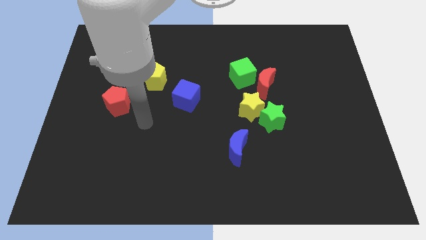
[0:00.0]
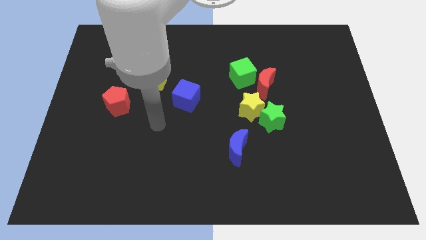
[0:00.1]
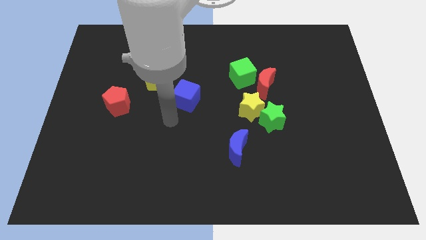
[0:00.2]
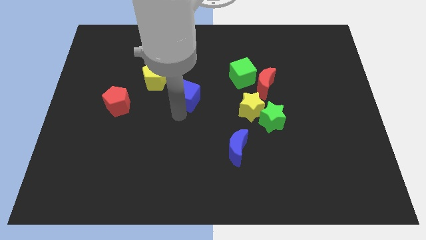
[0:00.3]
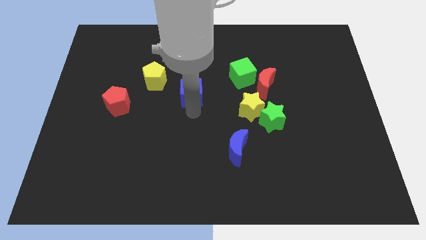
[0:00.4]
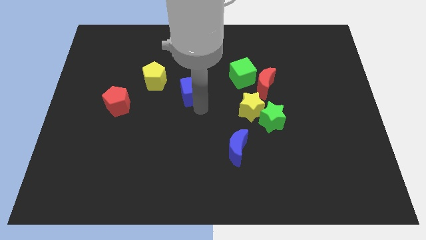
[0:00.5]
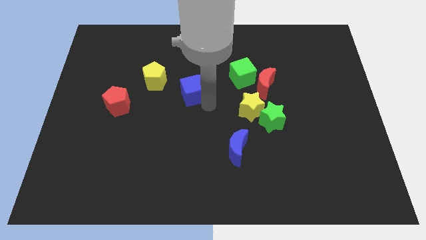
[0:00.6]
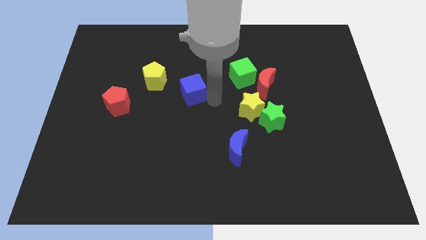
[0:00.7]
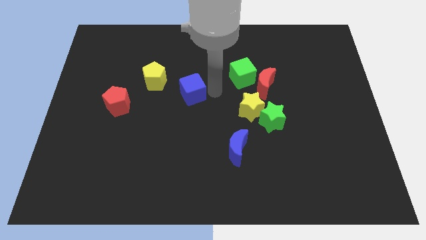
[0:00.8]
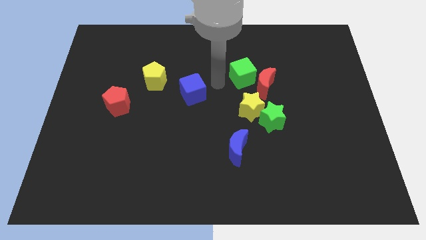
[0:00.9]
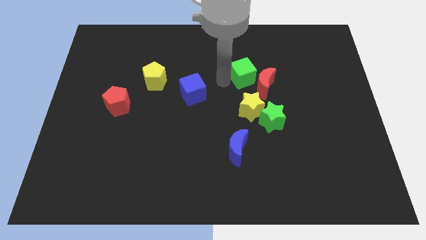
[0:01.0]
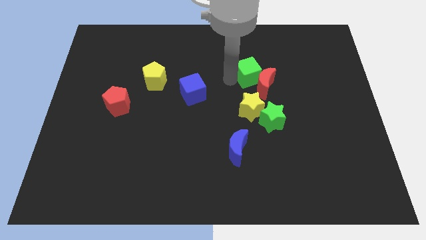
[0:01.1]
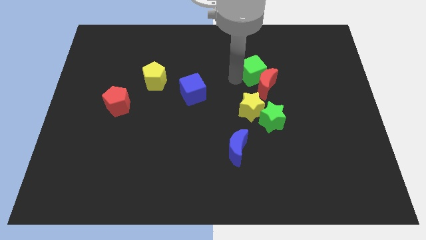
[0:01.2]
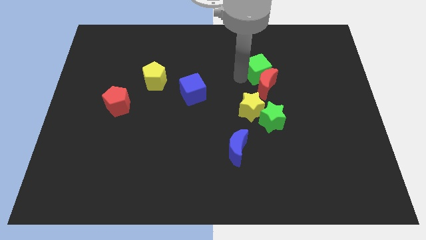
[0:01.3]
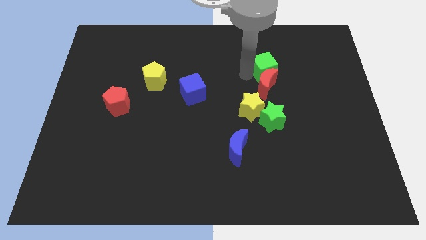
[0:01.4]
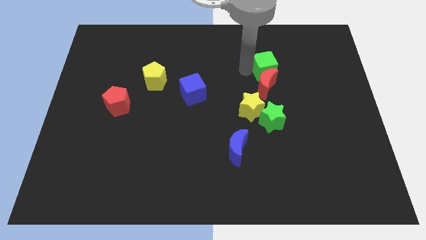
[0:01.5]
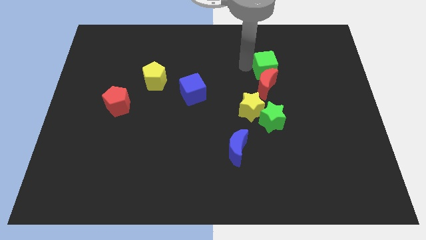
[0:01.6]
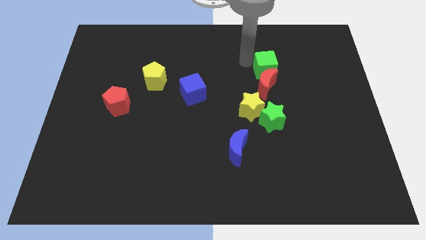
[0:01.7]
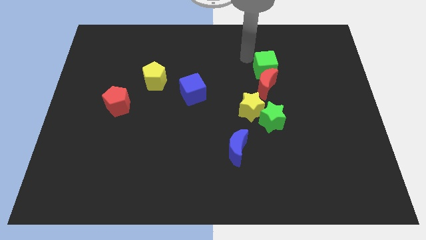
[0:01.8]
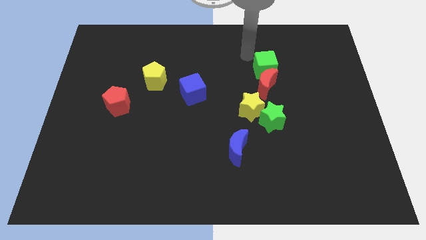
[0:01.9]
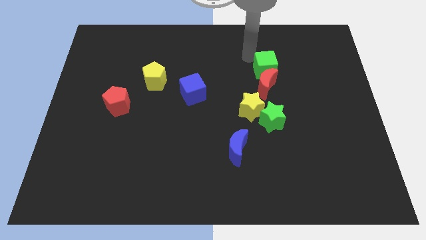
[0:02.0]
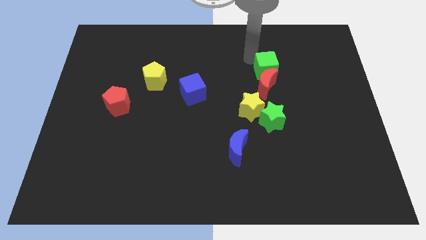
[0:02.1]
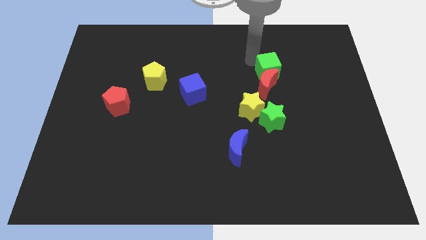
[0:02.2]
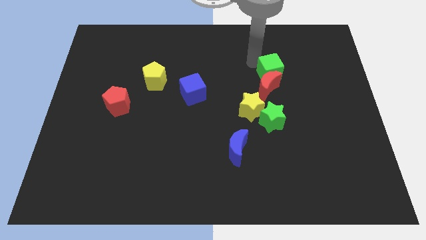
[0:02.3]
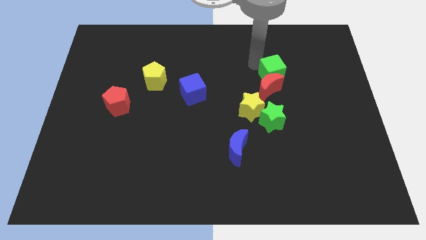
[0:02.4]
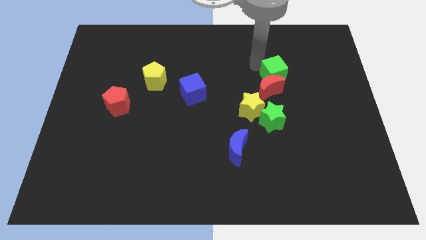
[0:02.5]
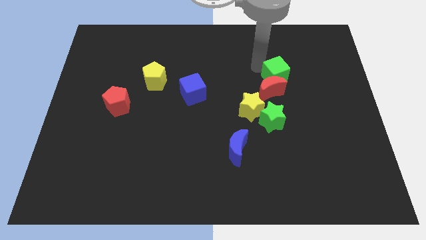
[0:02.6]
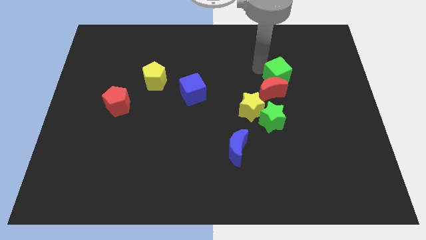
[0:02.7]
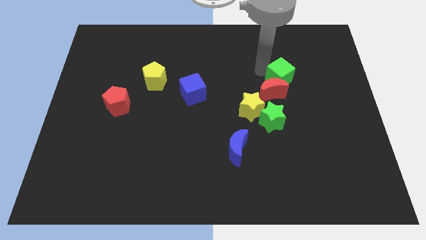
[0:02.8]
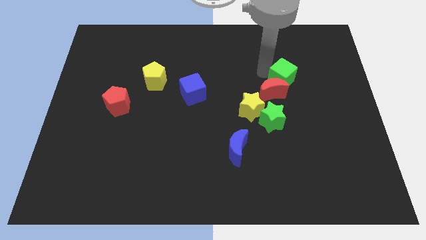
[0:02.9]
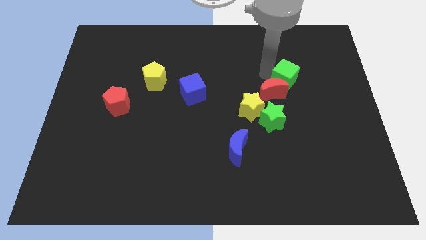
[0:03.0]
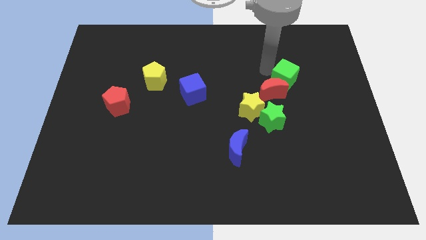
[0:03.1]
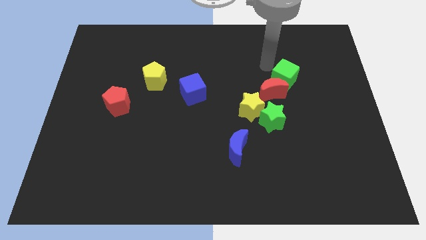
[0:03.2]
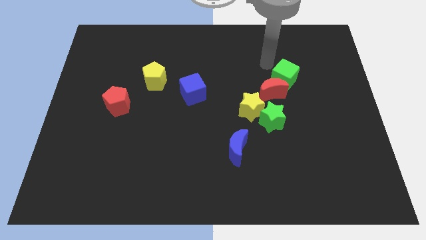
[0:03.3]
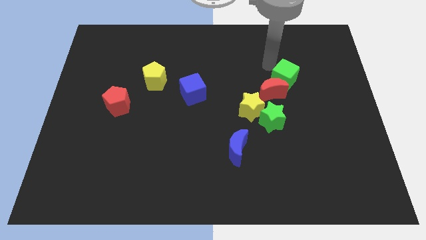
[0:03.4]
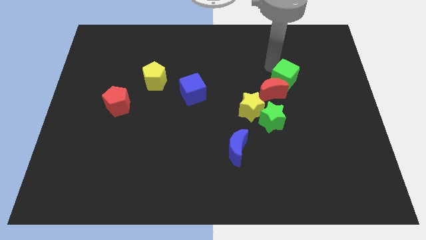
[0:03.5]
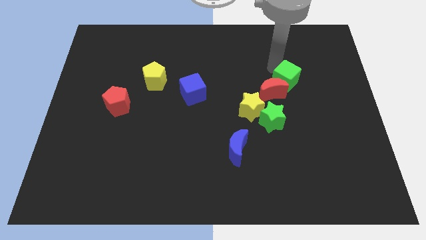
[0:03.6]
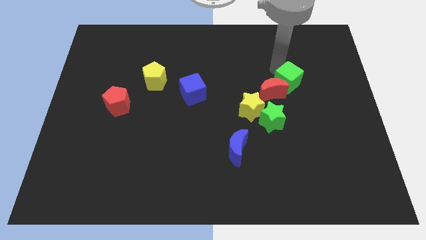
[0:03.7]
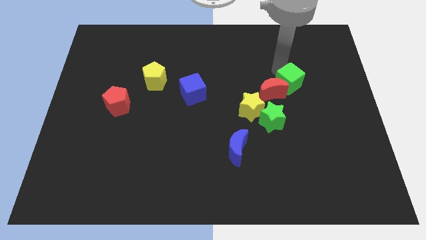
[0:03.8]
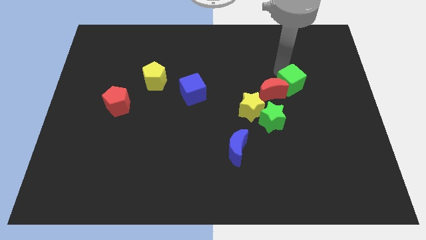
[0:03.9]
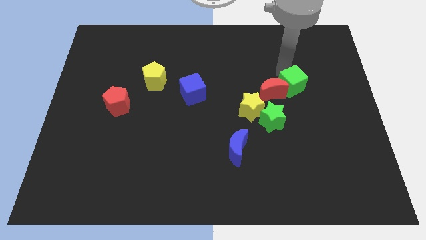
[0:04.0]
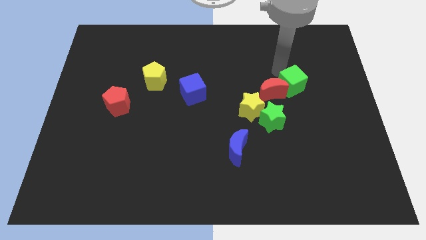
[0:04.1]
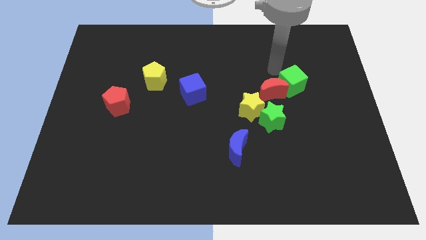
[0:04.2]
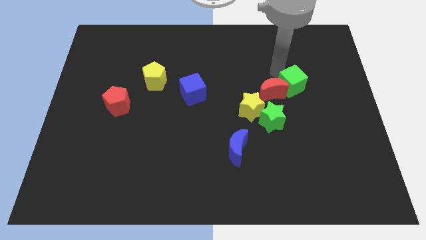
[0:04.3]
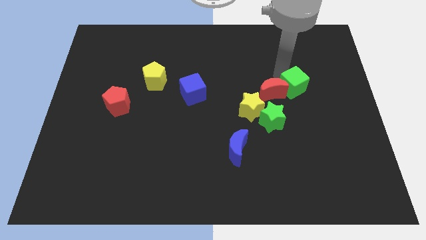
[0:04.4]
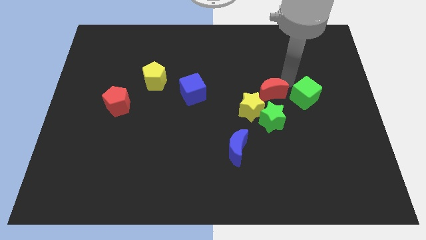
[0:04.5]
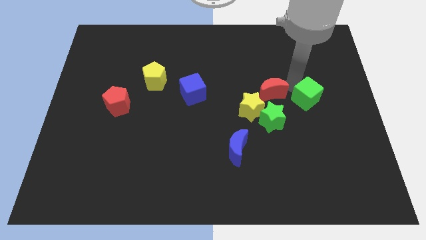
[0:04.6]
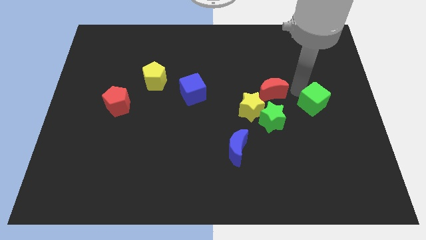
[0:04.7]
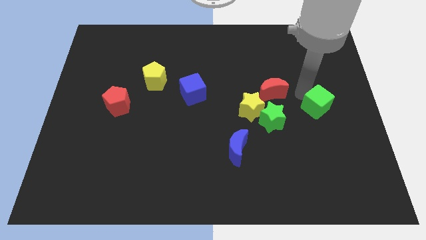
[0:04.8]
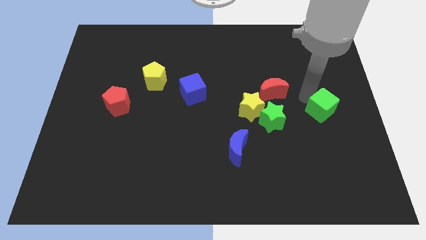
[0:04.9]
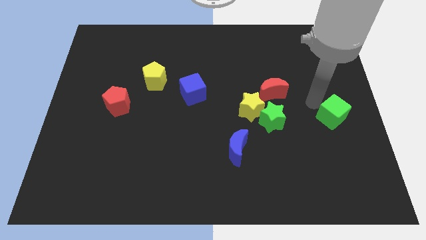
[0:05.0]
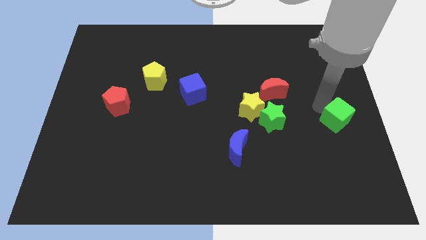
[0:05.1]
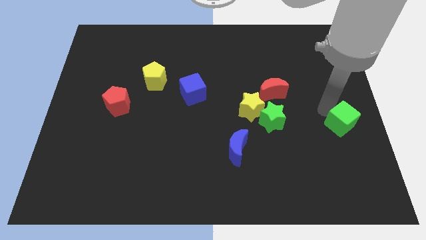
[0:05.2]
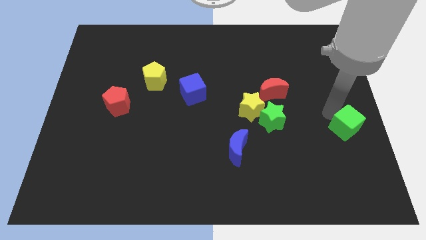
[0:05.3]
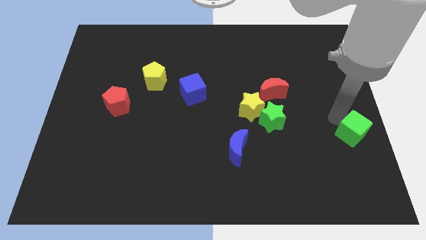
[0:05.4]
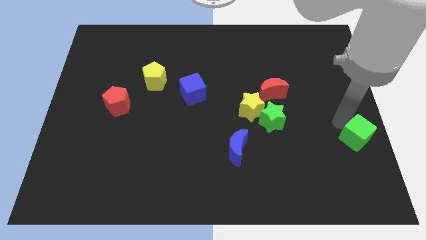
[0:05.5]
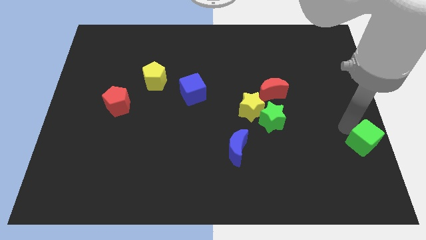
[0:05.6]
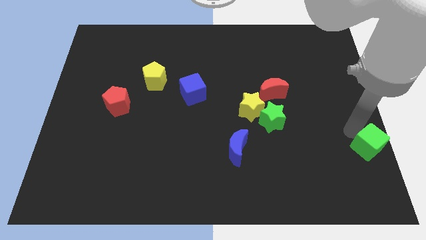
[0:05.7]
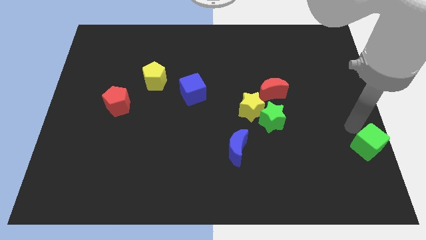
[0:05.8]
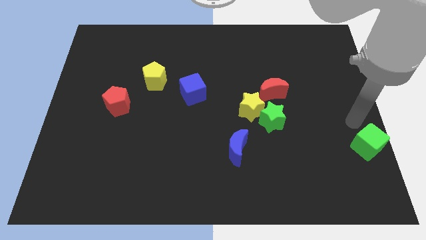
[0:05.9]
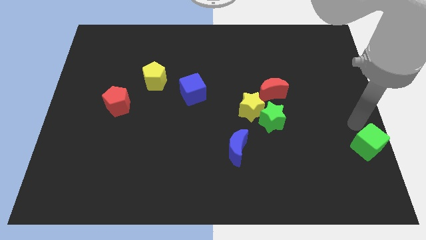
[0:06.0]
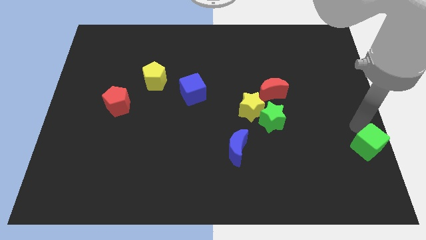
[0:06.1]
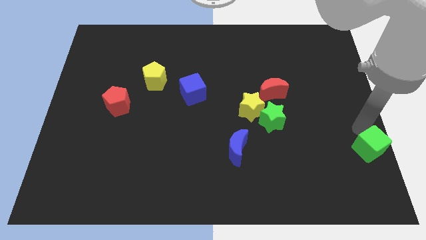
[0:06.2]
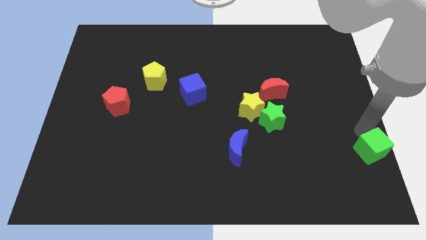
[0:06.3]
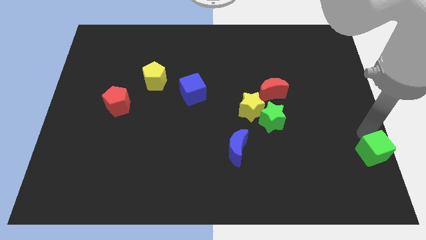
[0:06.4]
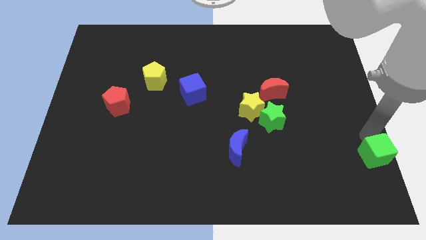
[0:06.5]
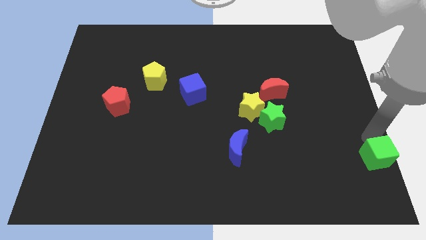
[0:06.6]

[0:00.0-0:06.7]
move the green cube to the bottom right corner
